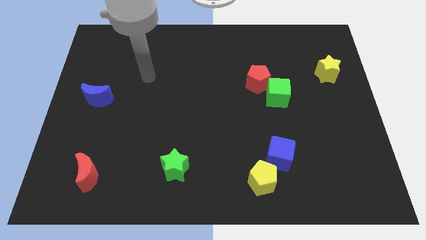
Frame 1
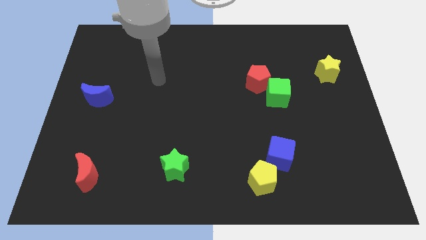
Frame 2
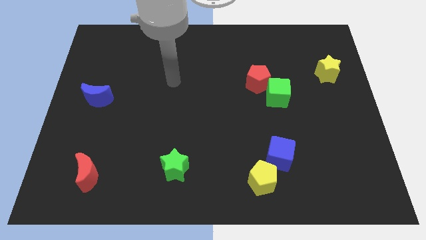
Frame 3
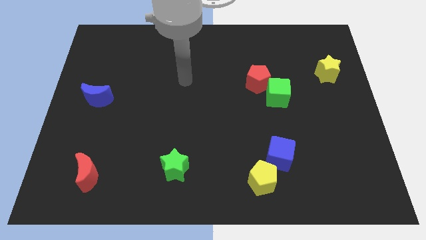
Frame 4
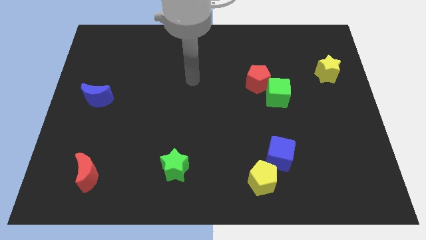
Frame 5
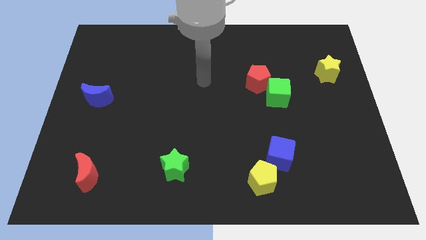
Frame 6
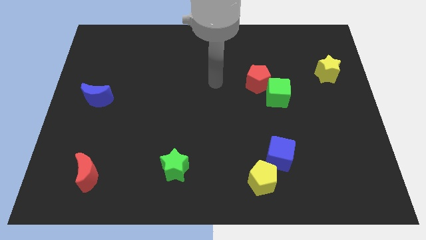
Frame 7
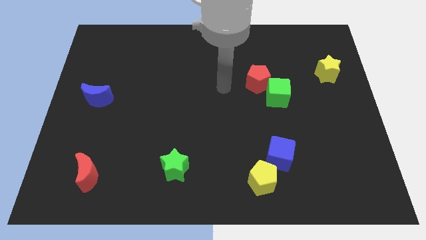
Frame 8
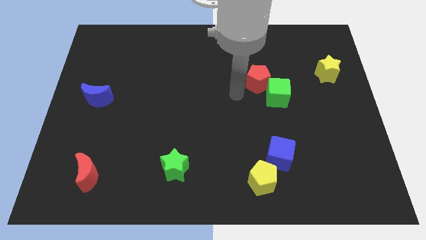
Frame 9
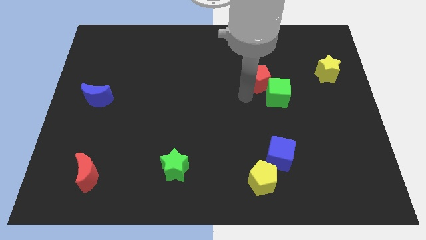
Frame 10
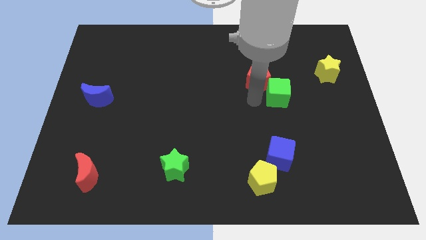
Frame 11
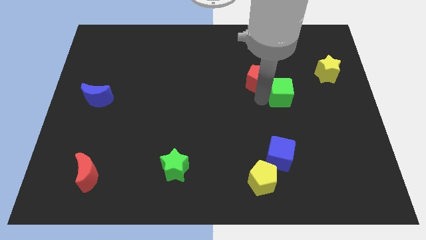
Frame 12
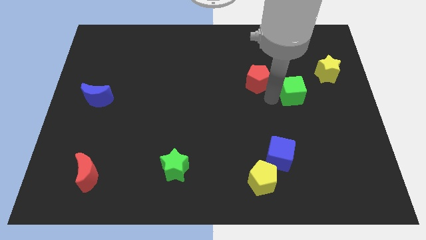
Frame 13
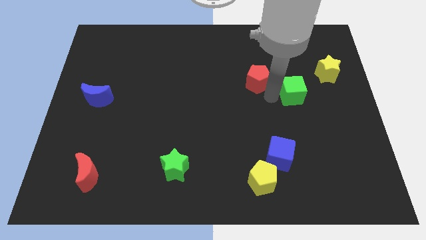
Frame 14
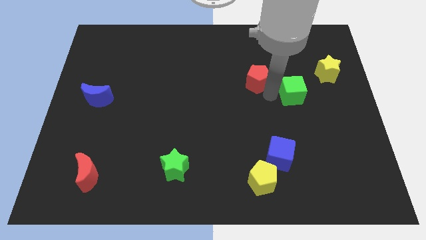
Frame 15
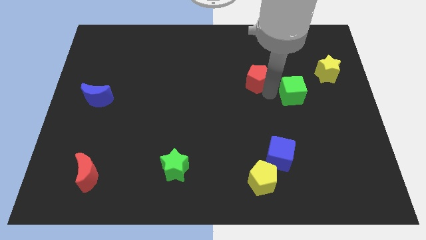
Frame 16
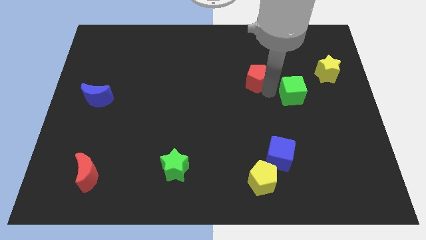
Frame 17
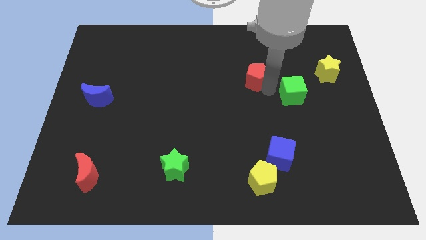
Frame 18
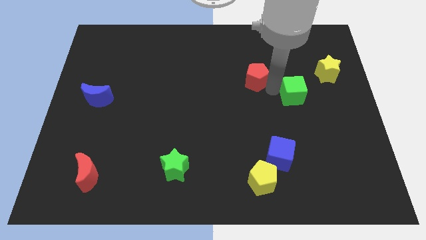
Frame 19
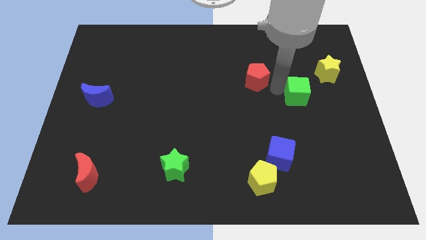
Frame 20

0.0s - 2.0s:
pull the red pentagon apart from the green cube

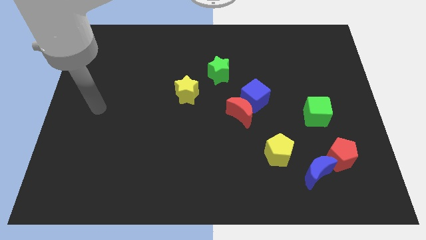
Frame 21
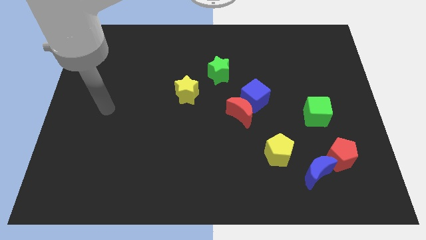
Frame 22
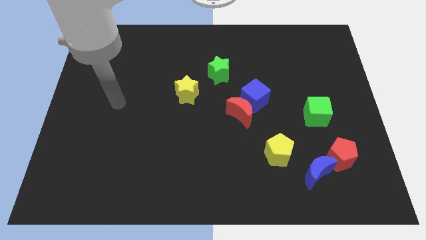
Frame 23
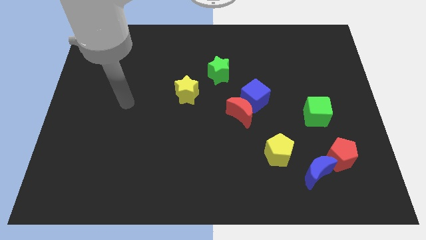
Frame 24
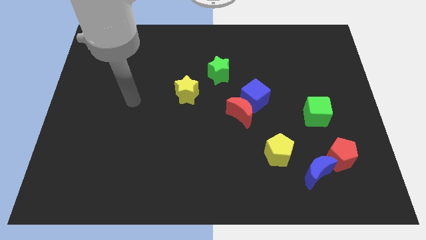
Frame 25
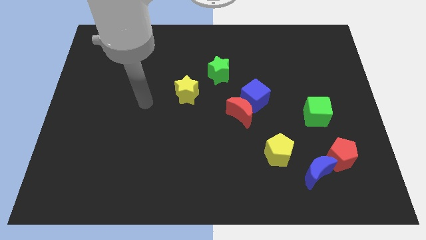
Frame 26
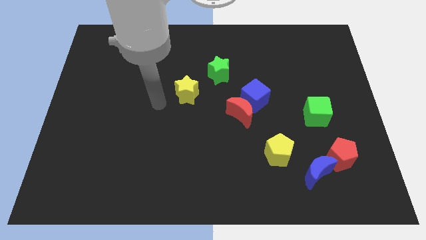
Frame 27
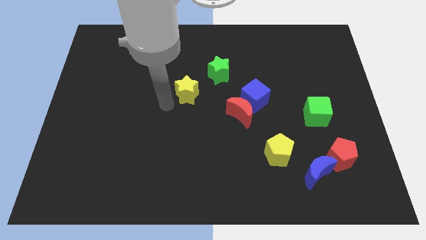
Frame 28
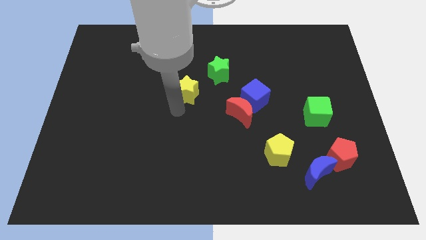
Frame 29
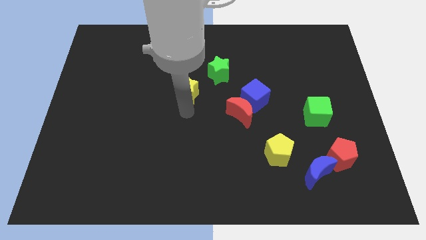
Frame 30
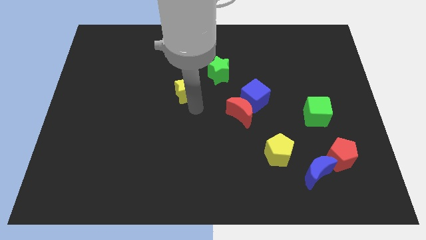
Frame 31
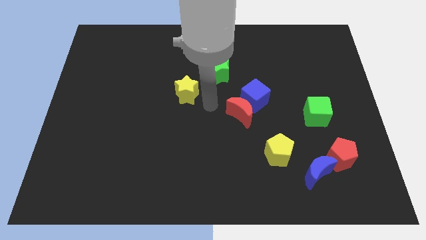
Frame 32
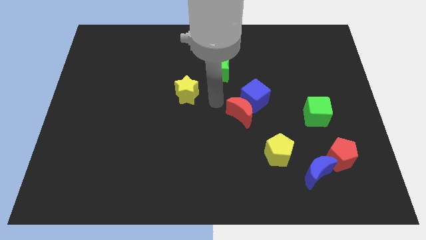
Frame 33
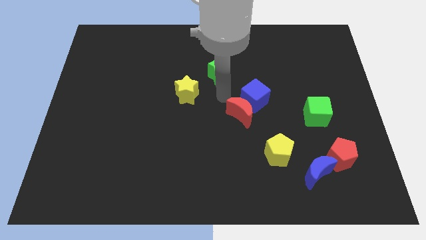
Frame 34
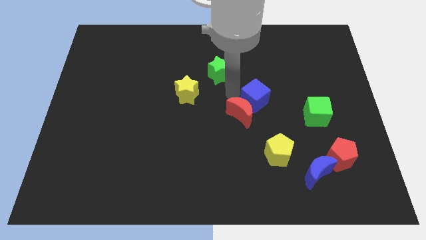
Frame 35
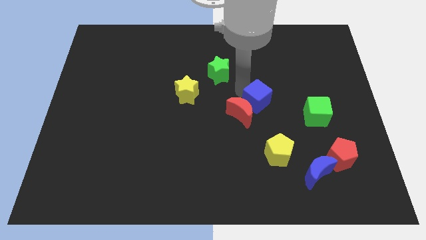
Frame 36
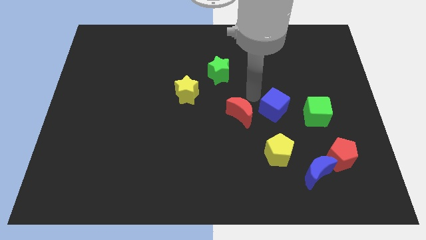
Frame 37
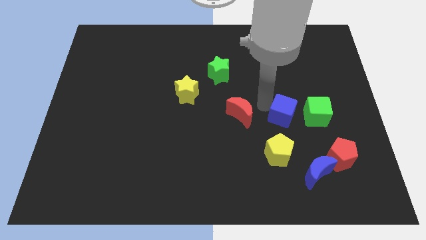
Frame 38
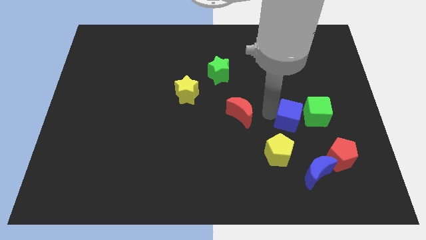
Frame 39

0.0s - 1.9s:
move the red moon away from the blue cube

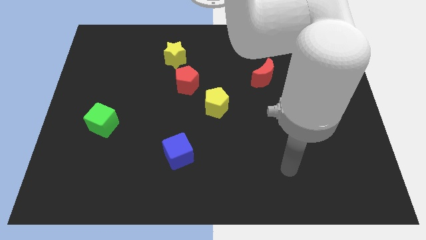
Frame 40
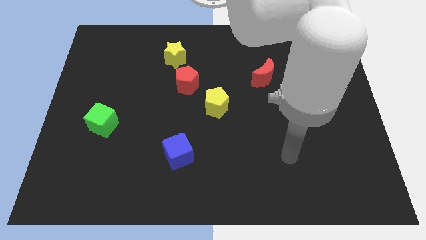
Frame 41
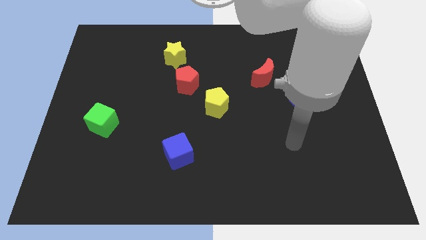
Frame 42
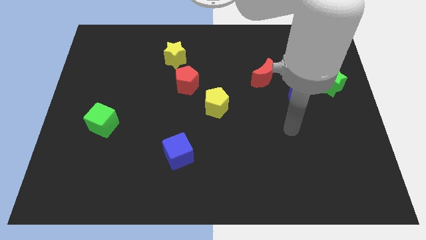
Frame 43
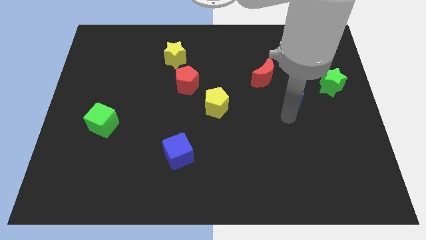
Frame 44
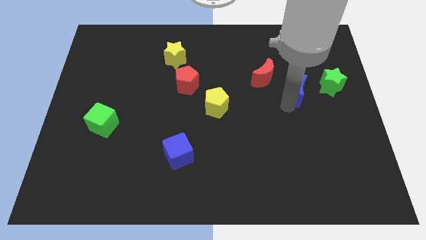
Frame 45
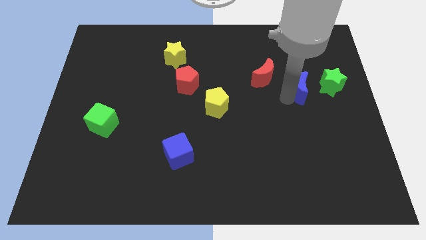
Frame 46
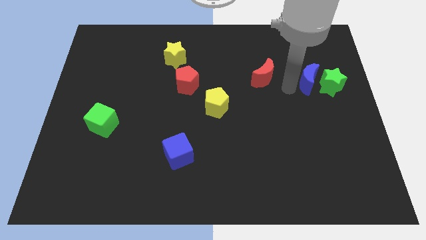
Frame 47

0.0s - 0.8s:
separate the red moon from the blue moon

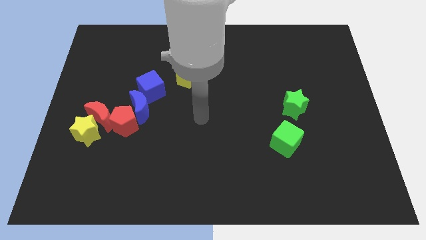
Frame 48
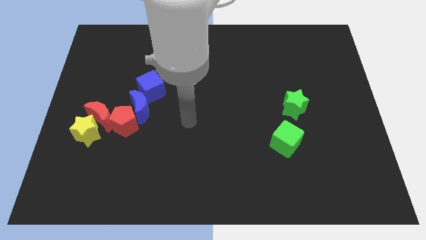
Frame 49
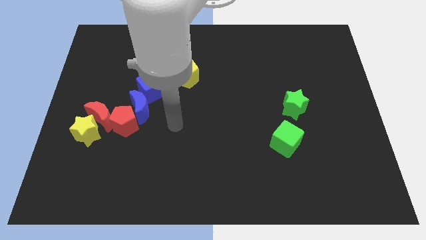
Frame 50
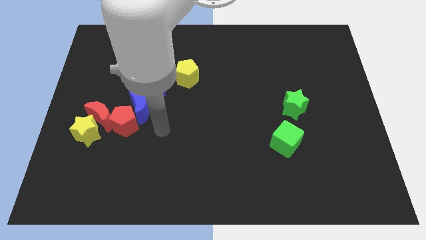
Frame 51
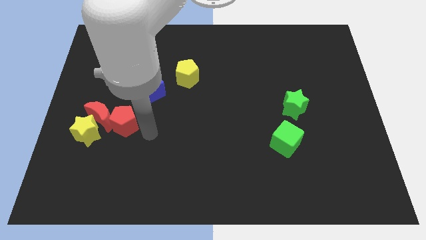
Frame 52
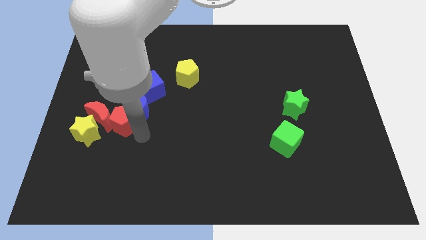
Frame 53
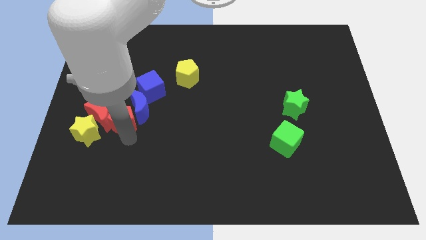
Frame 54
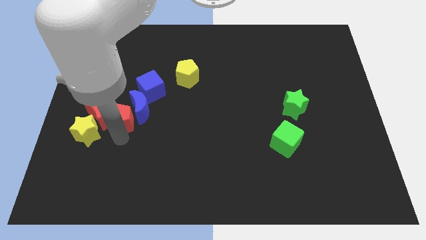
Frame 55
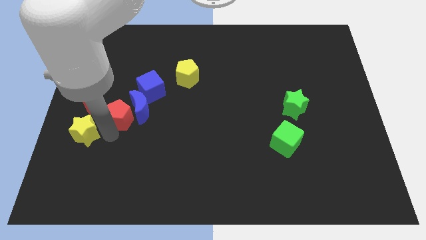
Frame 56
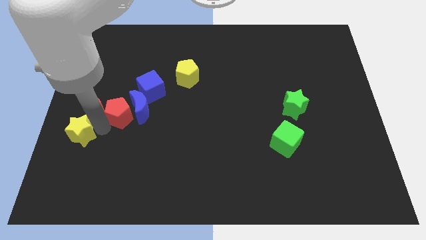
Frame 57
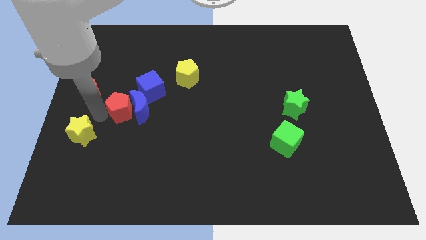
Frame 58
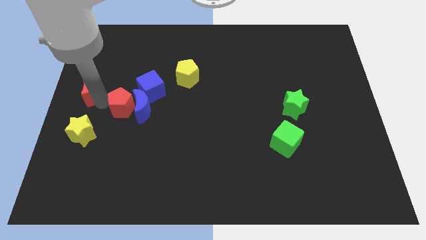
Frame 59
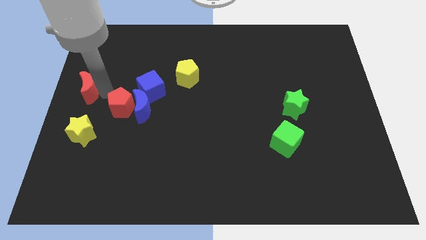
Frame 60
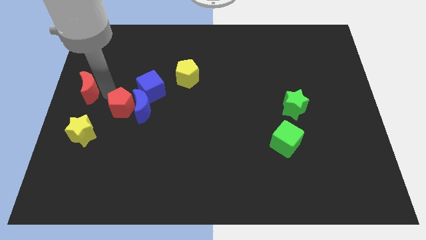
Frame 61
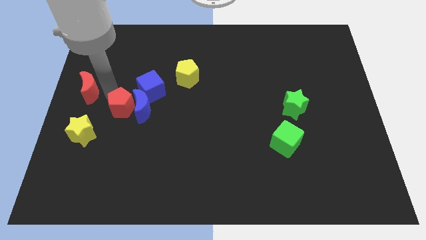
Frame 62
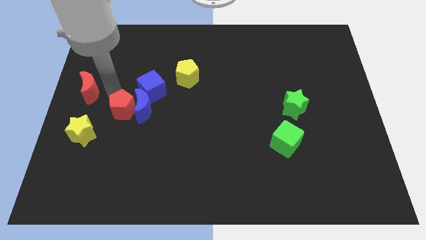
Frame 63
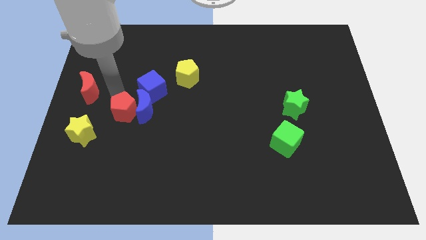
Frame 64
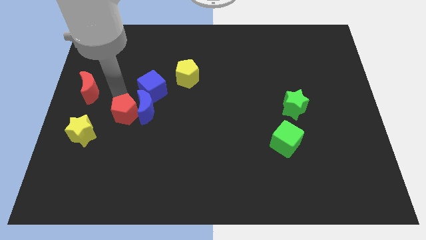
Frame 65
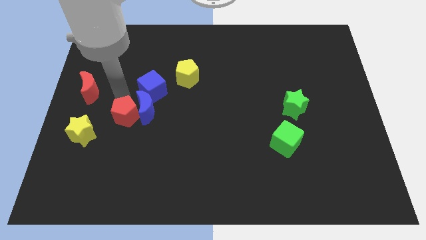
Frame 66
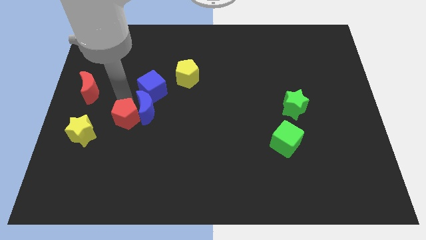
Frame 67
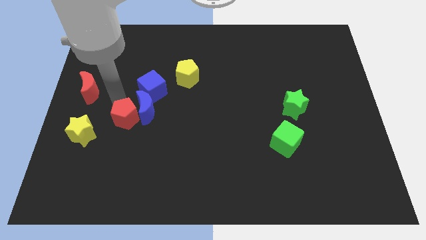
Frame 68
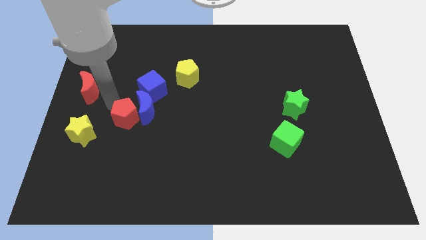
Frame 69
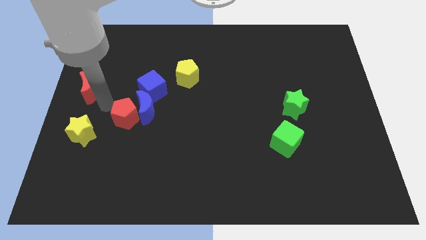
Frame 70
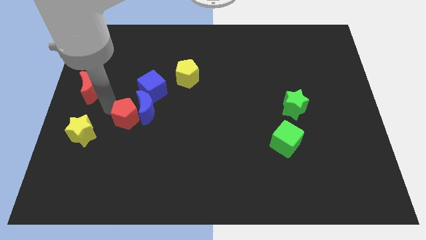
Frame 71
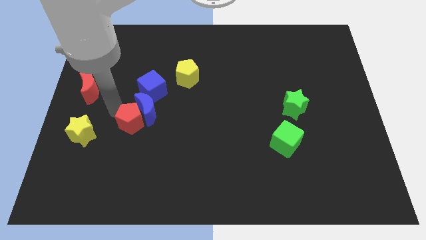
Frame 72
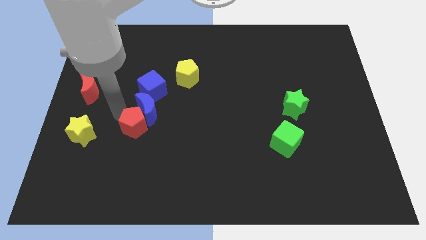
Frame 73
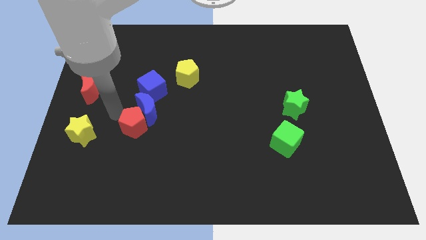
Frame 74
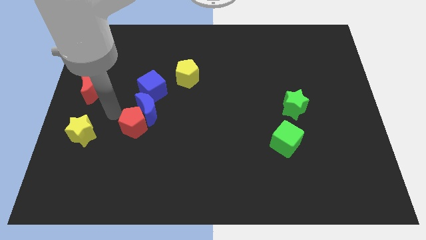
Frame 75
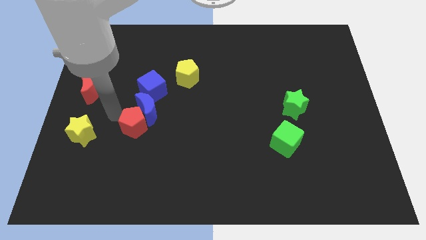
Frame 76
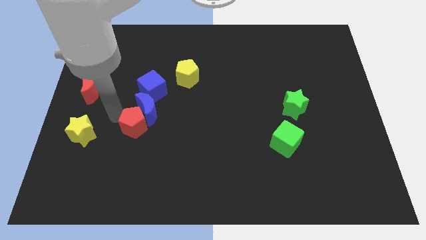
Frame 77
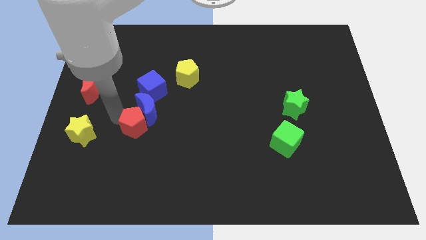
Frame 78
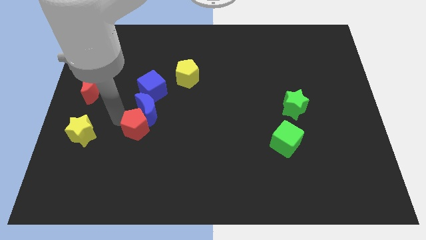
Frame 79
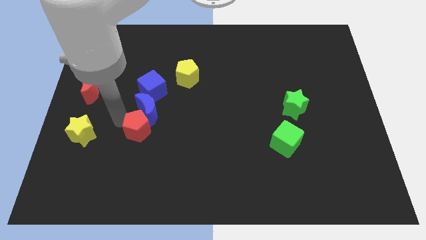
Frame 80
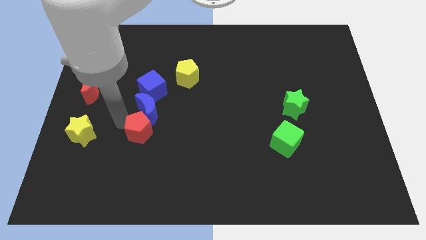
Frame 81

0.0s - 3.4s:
pull the red pentagon apart from the clump

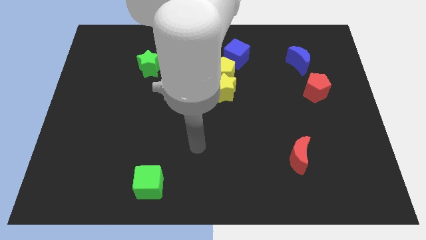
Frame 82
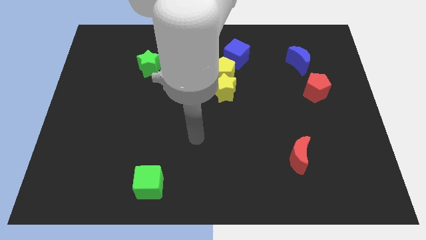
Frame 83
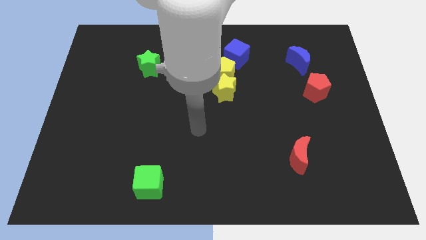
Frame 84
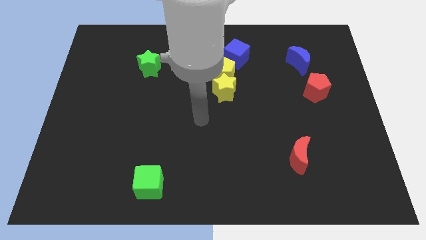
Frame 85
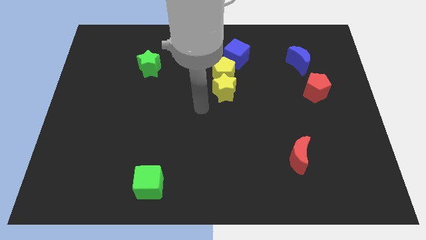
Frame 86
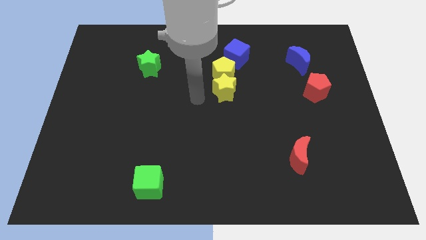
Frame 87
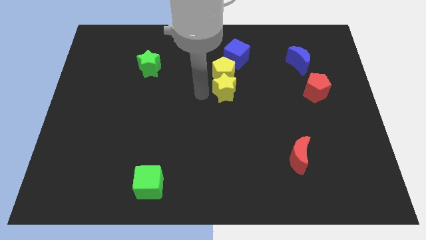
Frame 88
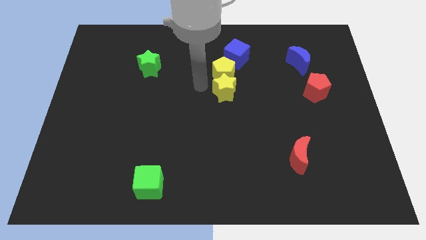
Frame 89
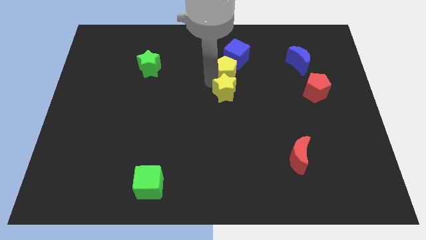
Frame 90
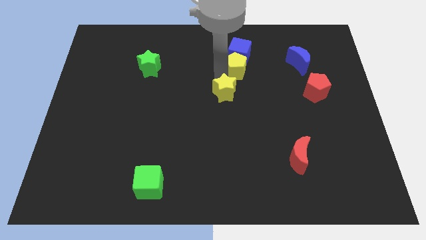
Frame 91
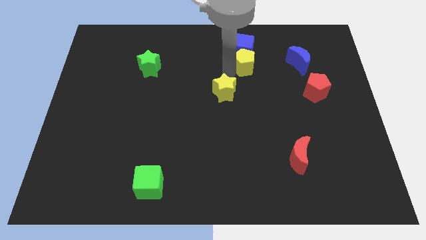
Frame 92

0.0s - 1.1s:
move the yellow star away from the yellow pentagon

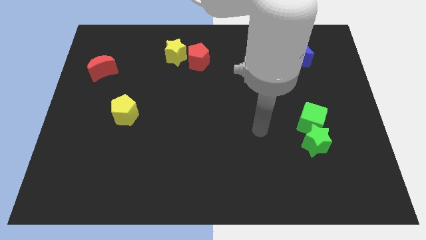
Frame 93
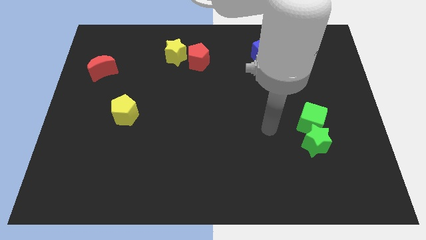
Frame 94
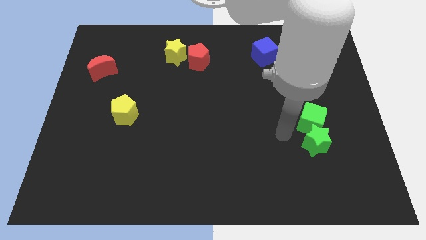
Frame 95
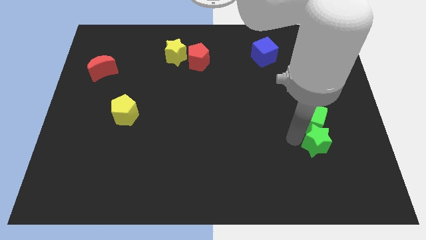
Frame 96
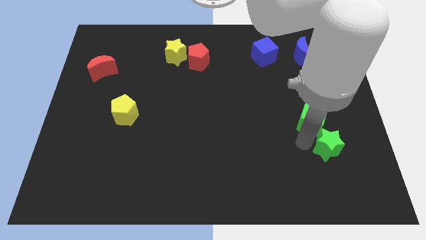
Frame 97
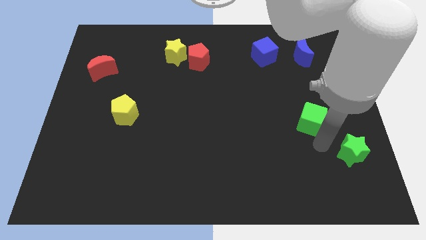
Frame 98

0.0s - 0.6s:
move the green cube away from the green star
